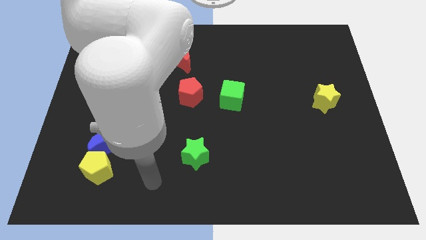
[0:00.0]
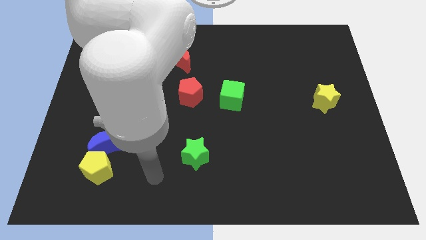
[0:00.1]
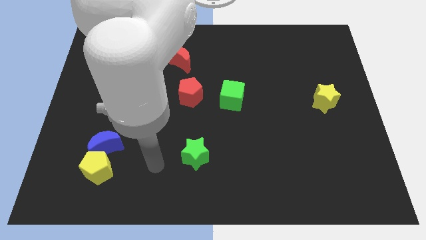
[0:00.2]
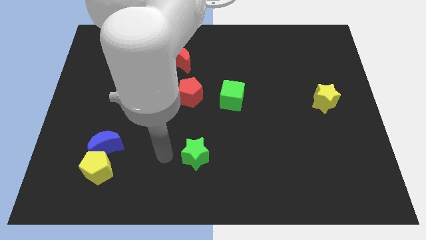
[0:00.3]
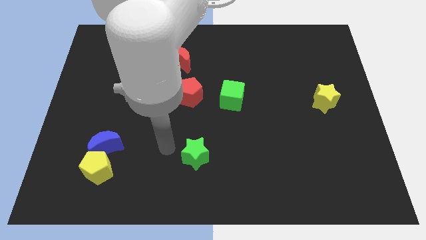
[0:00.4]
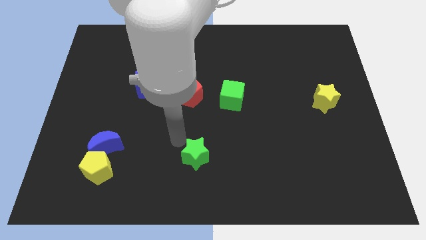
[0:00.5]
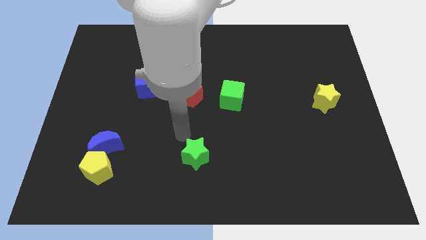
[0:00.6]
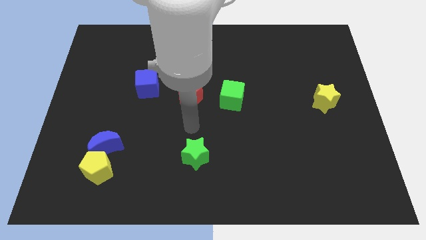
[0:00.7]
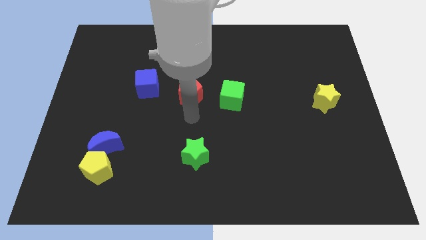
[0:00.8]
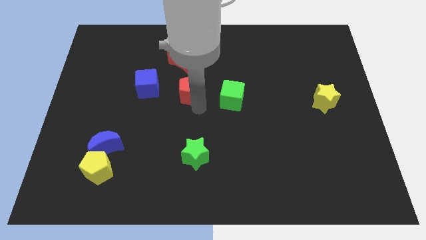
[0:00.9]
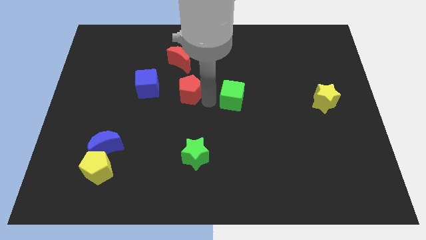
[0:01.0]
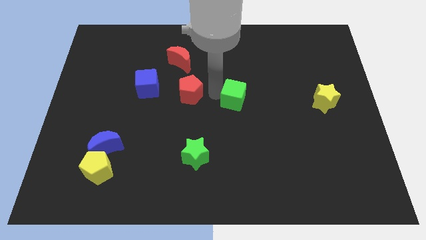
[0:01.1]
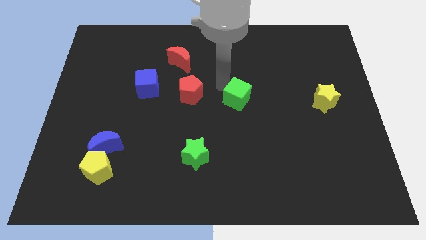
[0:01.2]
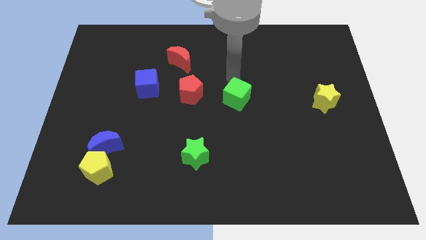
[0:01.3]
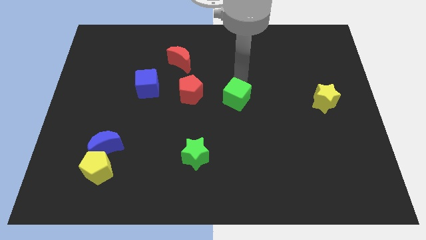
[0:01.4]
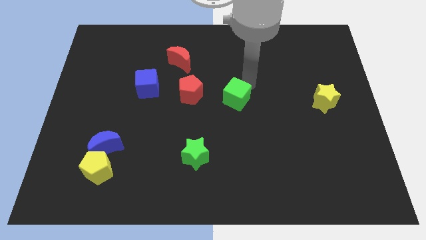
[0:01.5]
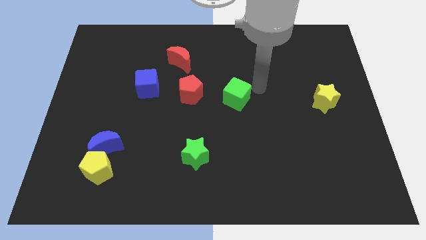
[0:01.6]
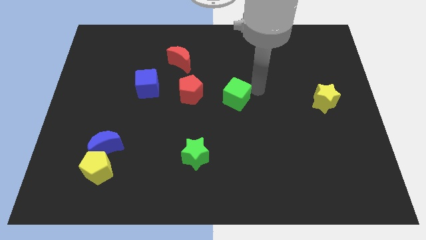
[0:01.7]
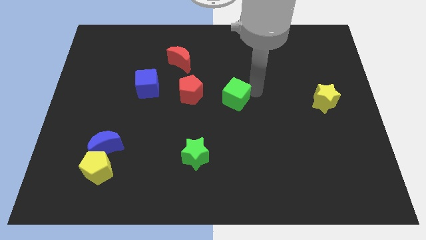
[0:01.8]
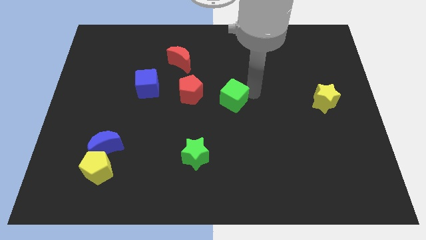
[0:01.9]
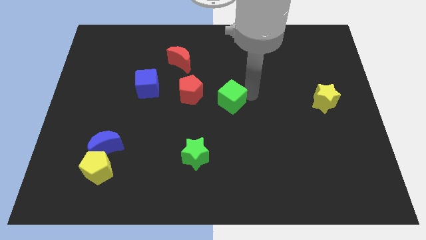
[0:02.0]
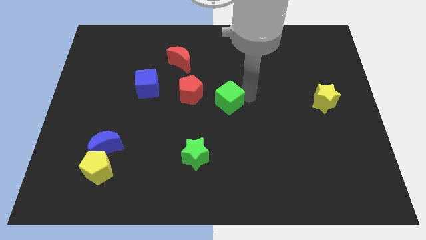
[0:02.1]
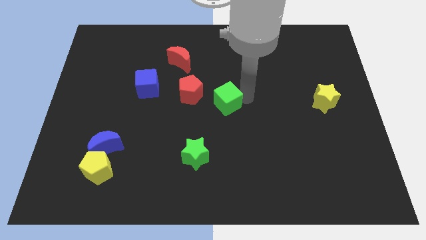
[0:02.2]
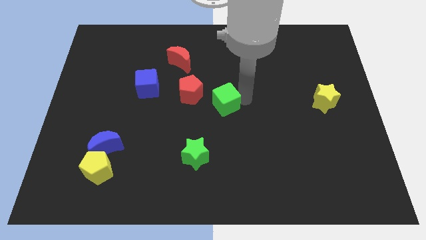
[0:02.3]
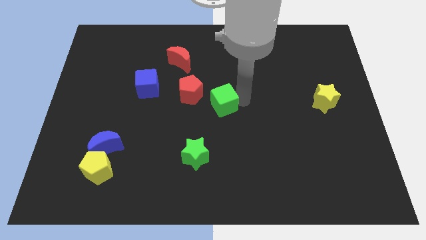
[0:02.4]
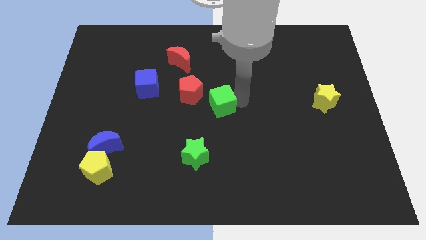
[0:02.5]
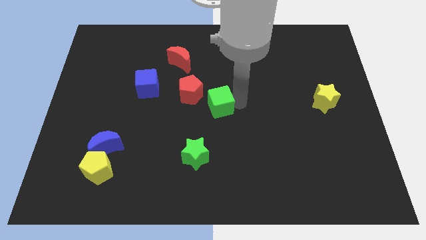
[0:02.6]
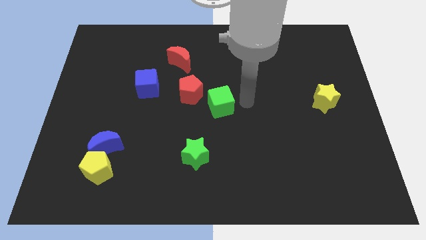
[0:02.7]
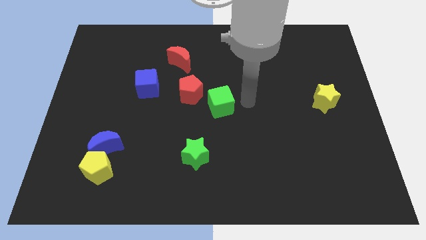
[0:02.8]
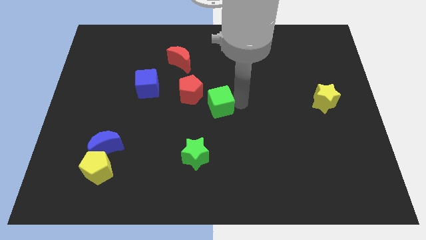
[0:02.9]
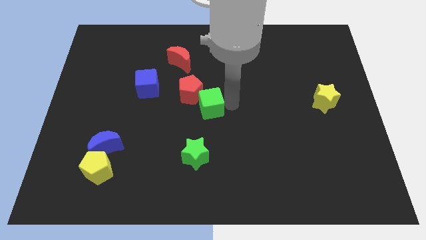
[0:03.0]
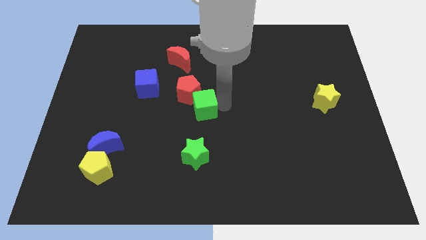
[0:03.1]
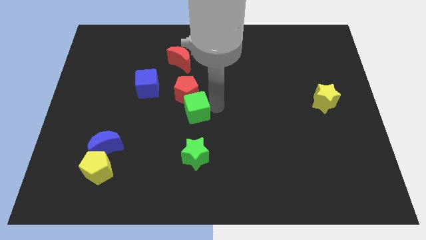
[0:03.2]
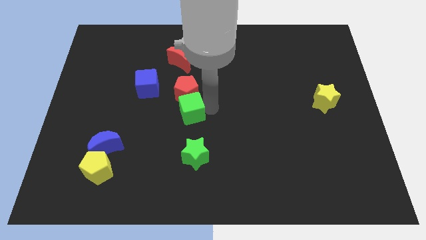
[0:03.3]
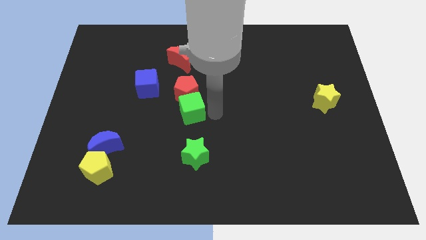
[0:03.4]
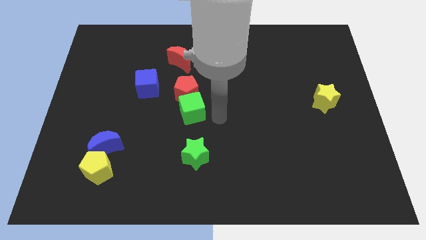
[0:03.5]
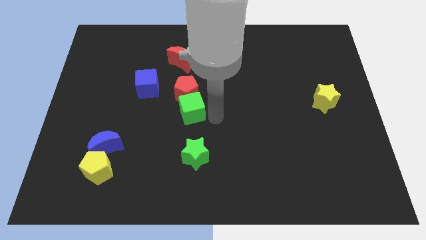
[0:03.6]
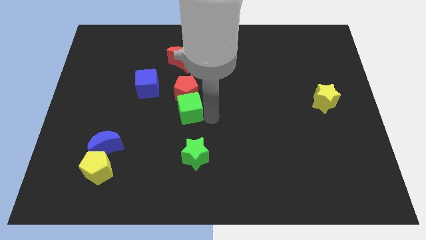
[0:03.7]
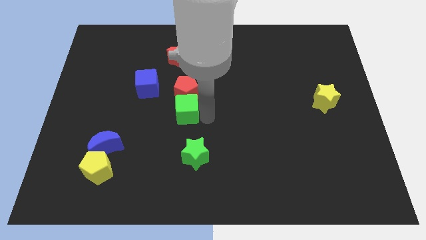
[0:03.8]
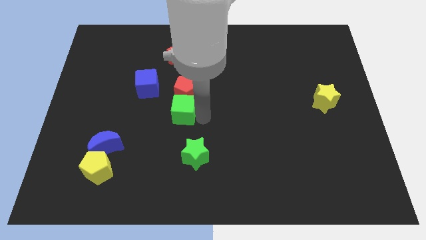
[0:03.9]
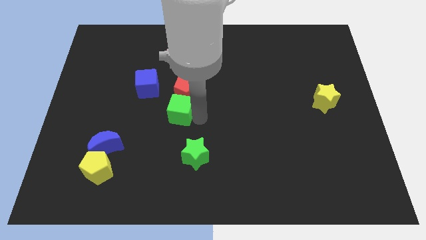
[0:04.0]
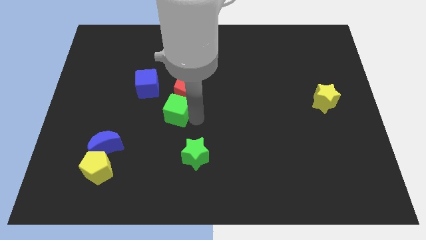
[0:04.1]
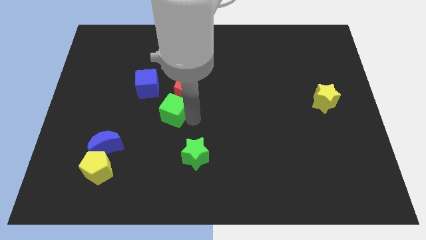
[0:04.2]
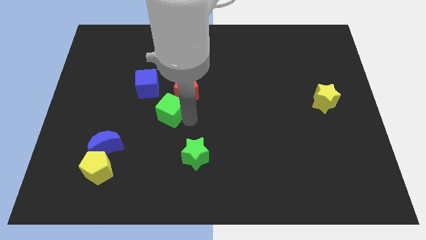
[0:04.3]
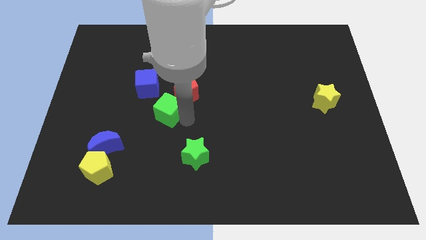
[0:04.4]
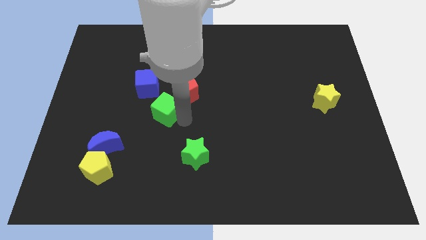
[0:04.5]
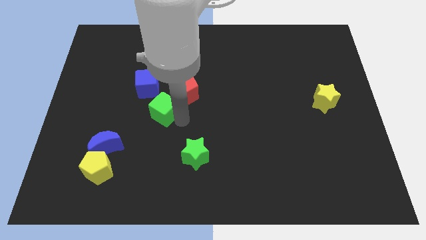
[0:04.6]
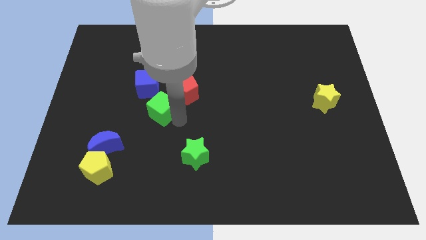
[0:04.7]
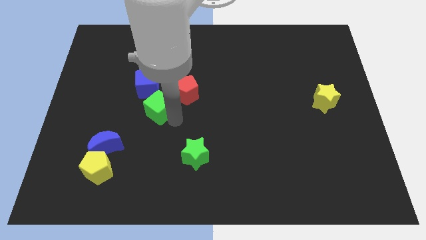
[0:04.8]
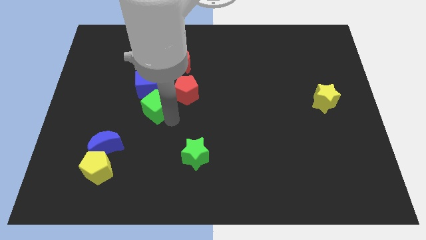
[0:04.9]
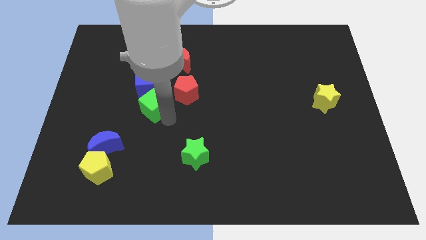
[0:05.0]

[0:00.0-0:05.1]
slide the green cube left of the red pentagon

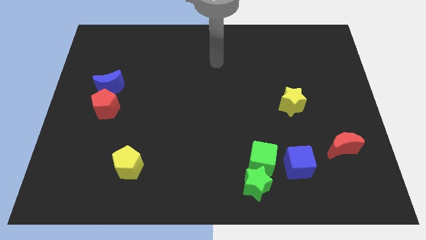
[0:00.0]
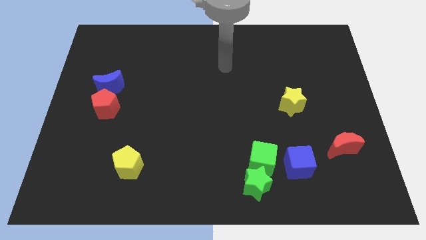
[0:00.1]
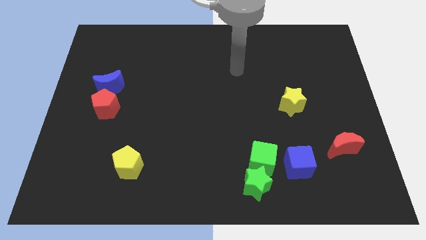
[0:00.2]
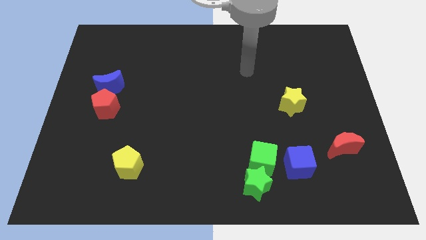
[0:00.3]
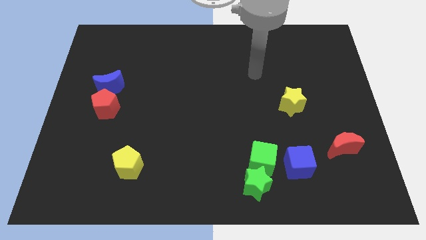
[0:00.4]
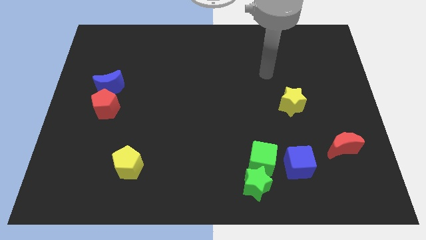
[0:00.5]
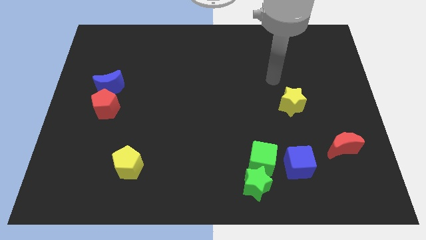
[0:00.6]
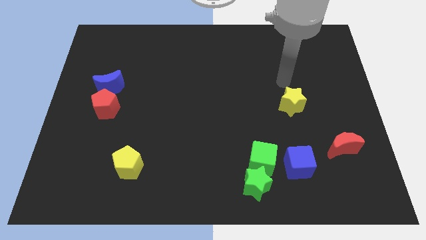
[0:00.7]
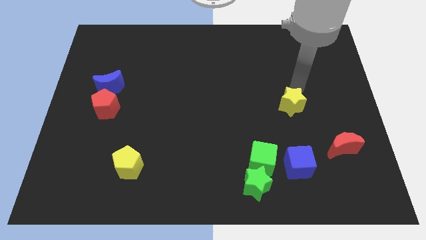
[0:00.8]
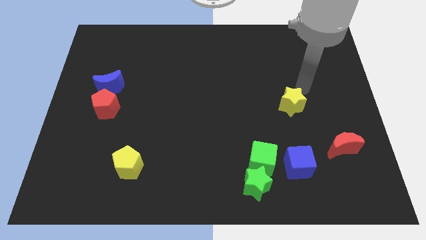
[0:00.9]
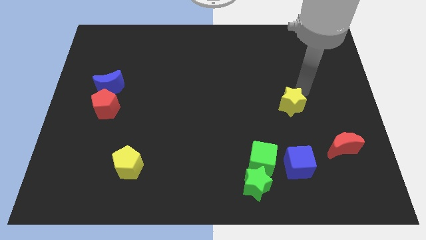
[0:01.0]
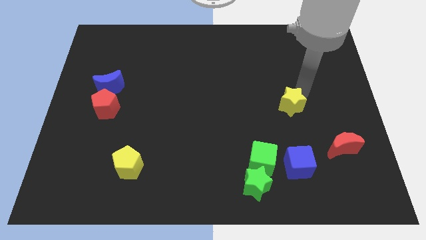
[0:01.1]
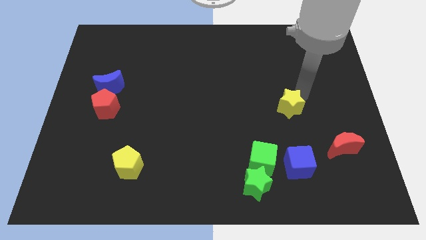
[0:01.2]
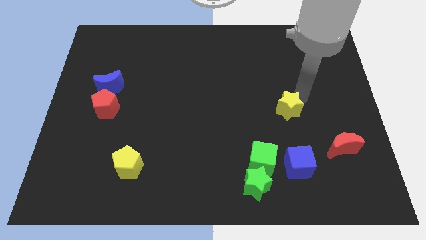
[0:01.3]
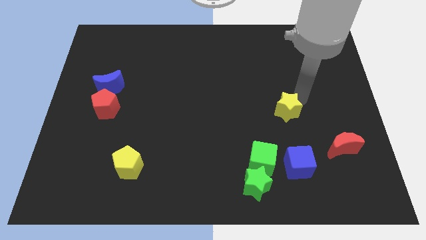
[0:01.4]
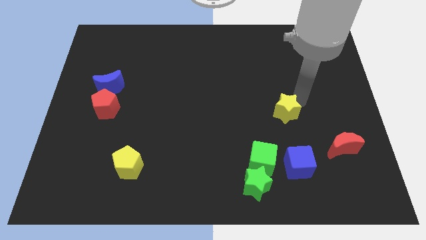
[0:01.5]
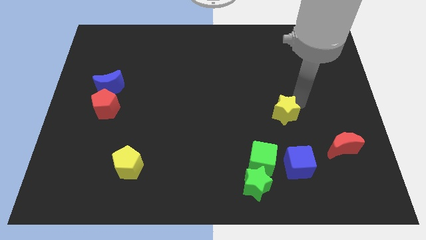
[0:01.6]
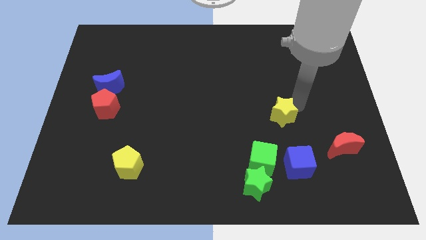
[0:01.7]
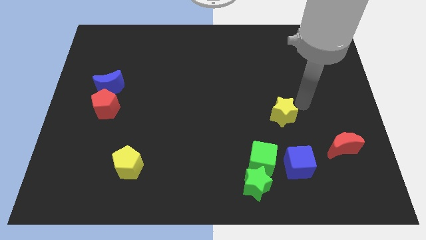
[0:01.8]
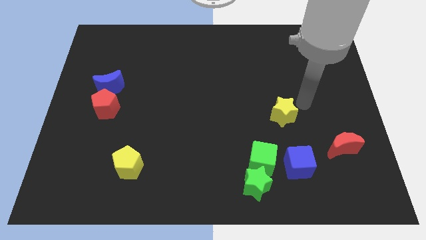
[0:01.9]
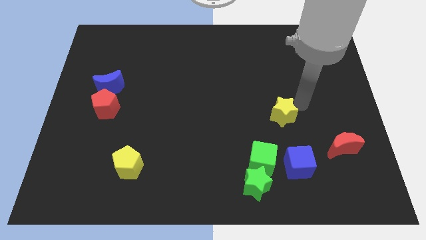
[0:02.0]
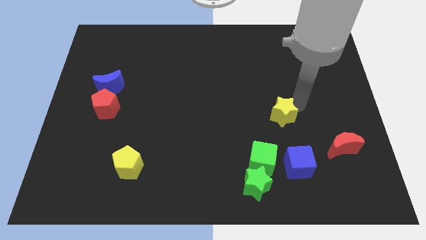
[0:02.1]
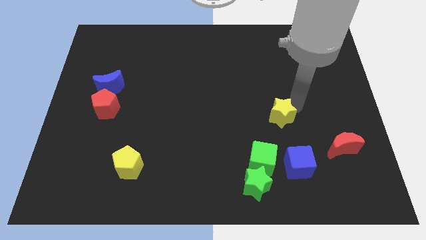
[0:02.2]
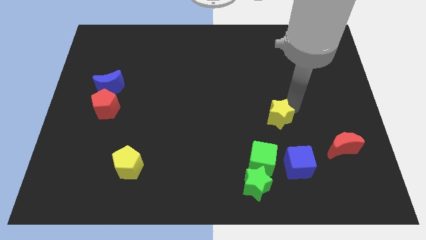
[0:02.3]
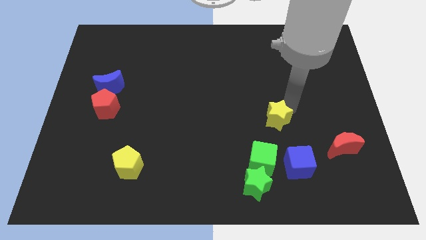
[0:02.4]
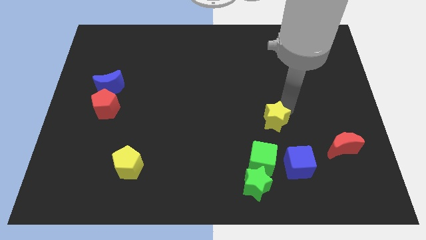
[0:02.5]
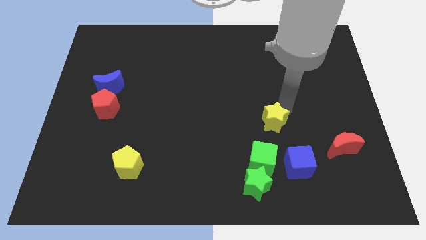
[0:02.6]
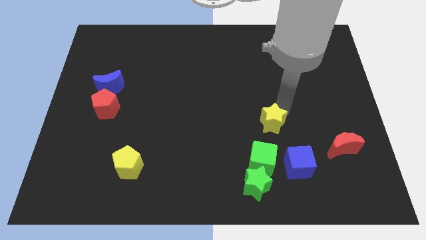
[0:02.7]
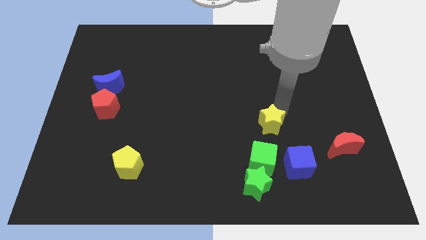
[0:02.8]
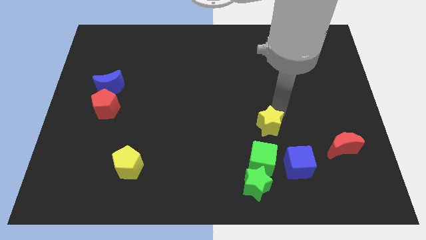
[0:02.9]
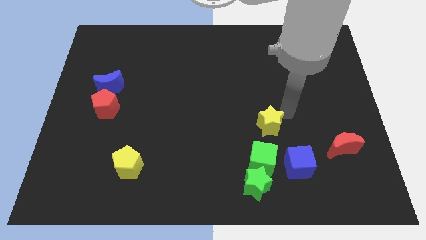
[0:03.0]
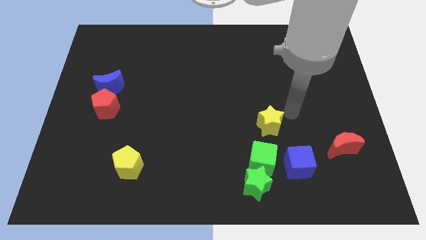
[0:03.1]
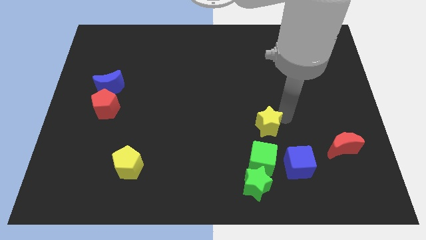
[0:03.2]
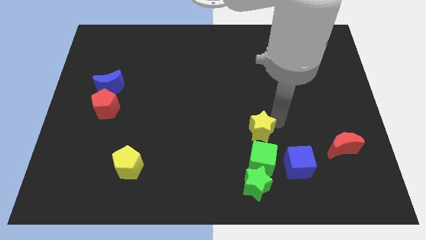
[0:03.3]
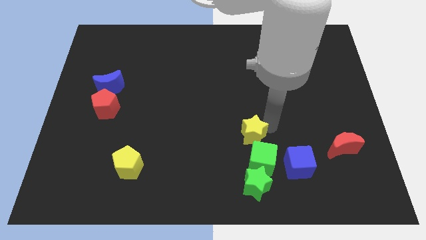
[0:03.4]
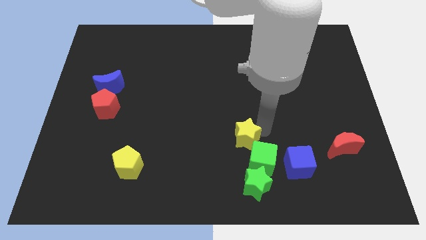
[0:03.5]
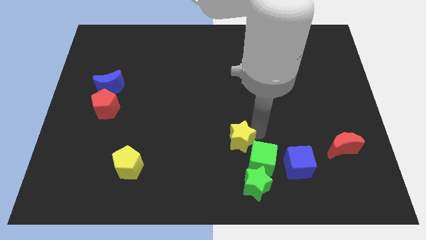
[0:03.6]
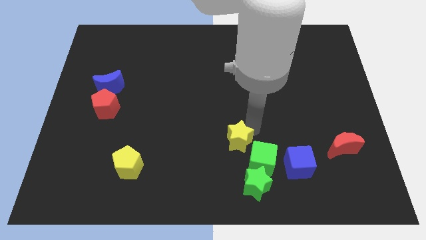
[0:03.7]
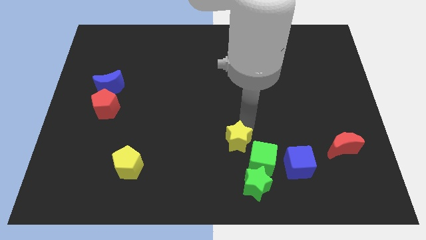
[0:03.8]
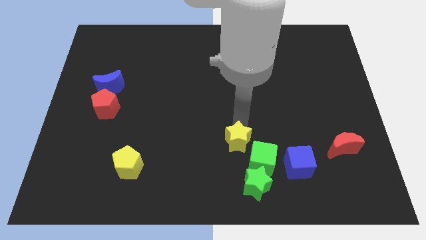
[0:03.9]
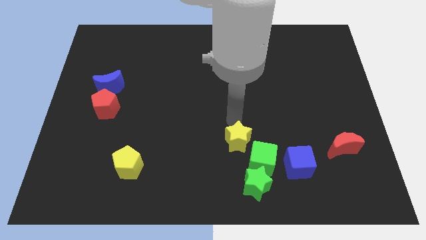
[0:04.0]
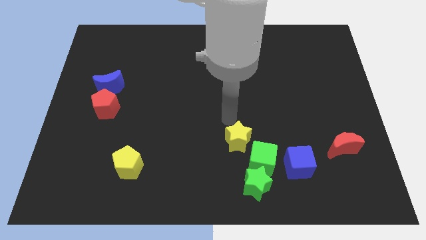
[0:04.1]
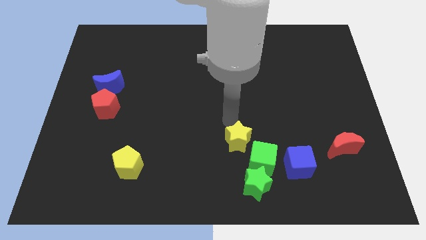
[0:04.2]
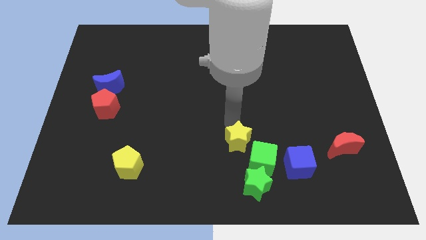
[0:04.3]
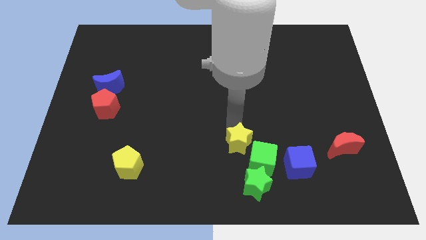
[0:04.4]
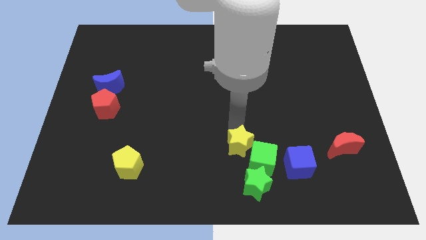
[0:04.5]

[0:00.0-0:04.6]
slide the yellow star to the left side of the blue cube
